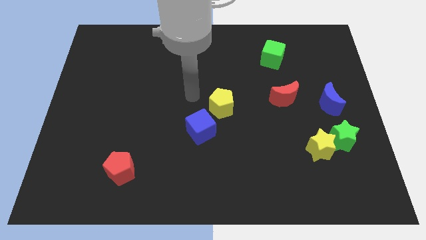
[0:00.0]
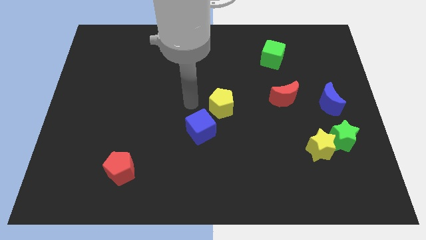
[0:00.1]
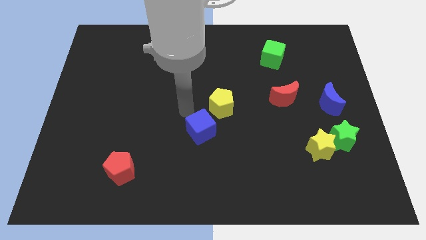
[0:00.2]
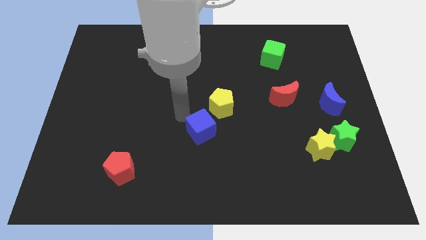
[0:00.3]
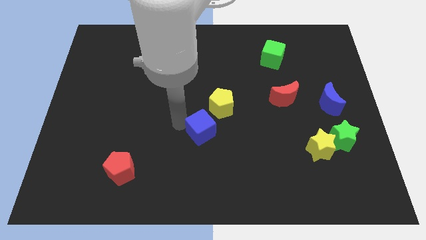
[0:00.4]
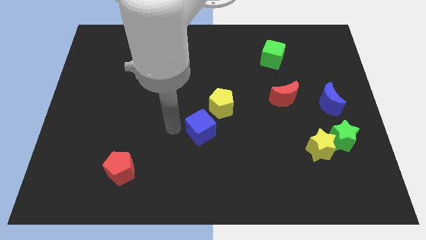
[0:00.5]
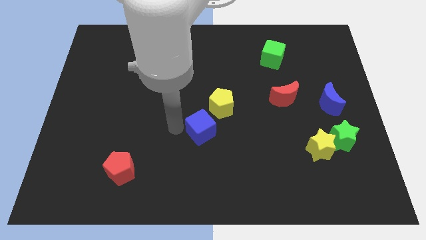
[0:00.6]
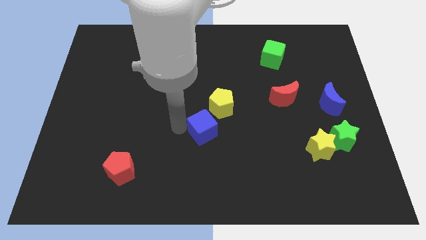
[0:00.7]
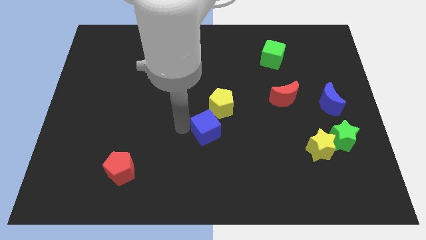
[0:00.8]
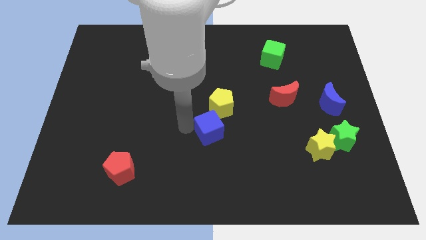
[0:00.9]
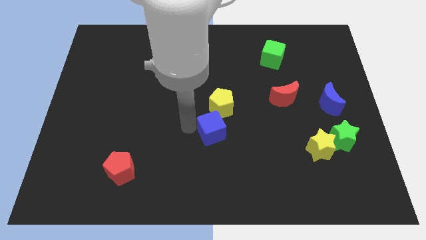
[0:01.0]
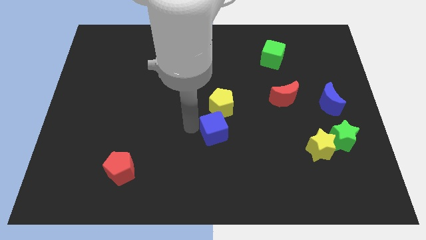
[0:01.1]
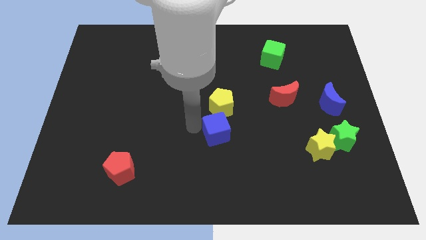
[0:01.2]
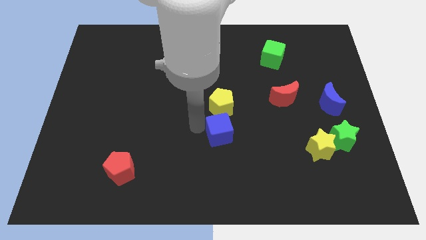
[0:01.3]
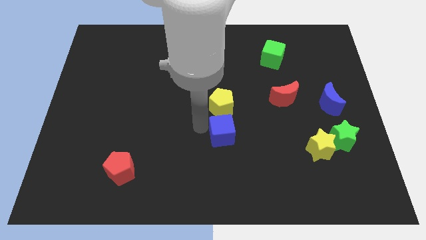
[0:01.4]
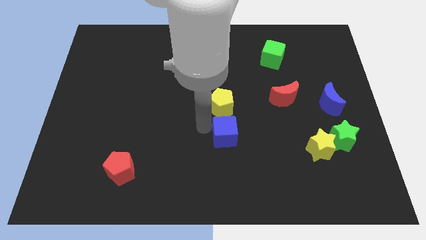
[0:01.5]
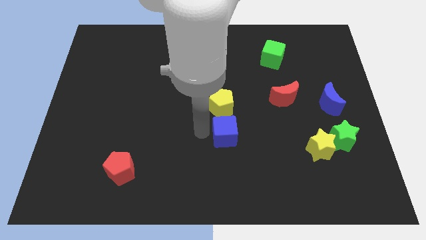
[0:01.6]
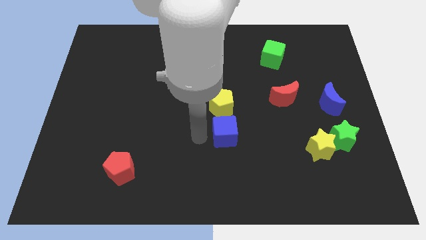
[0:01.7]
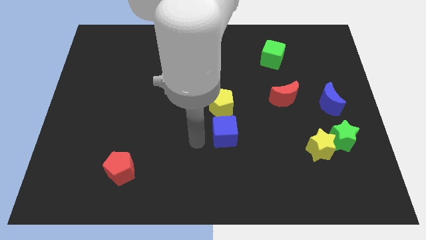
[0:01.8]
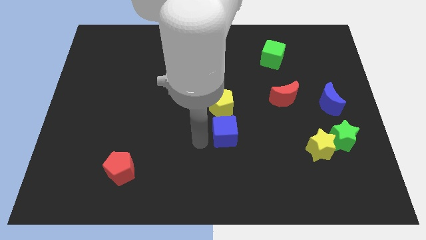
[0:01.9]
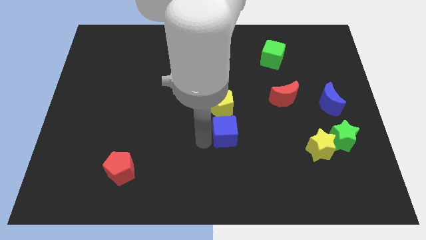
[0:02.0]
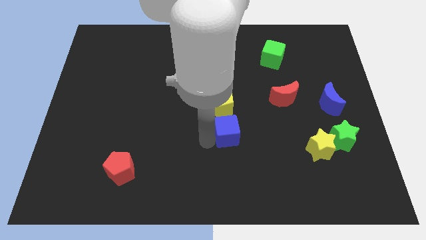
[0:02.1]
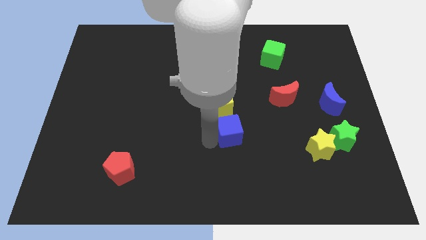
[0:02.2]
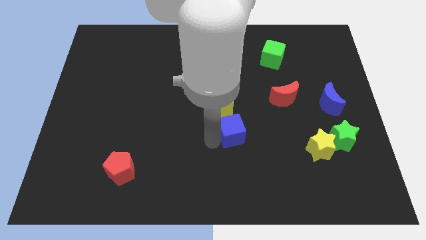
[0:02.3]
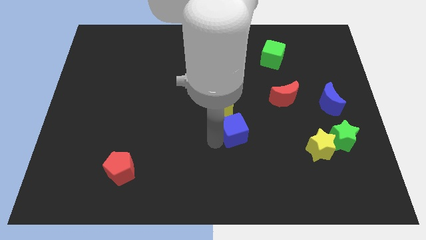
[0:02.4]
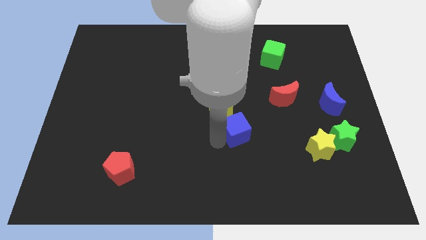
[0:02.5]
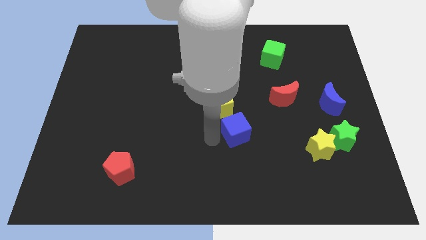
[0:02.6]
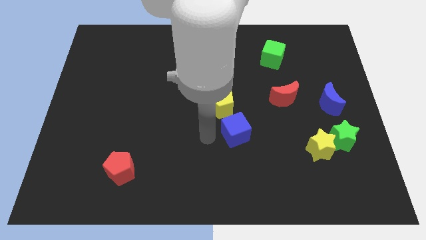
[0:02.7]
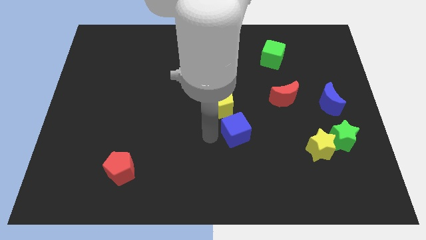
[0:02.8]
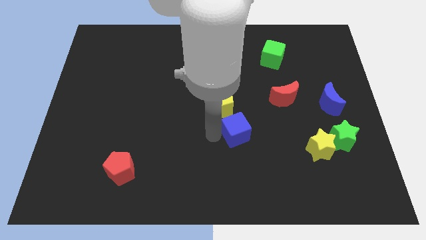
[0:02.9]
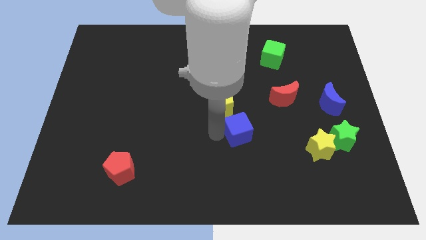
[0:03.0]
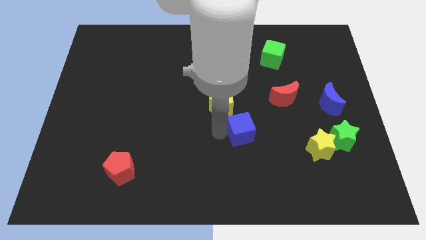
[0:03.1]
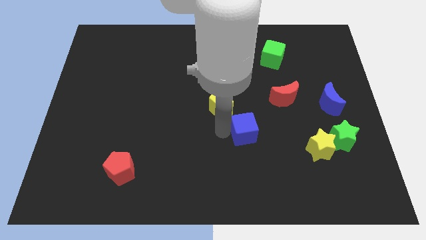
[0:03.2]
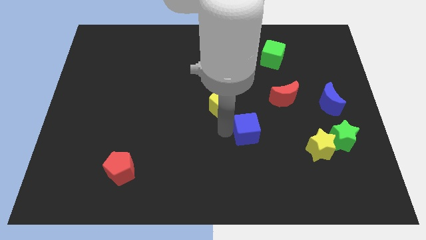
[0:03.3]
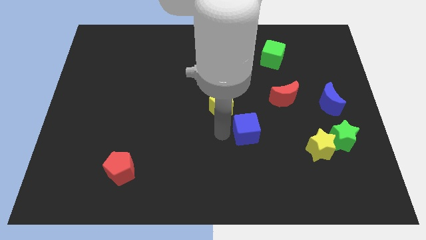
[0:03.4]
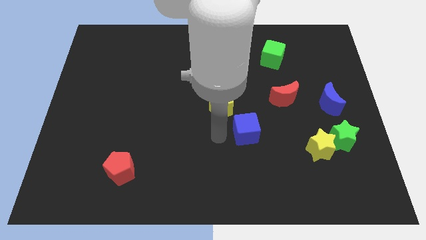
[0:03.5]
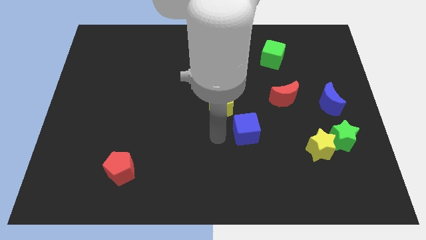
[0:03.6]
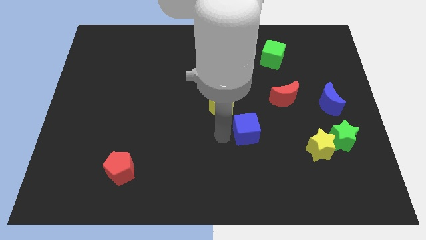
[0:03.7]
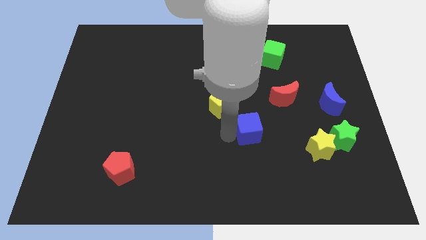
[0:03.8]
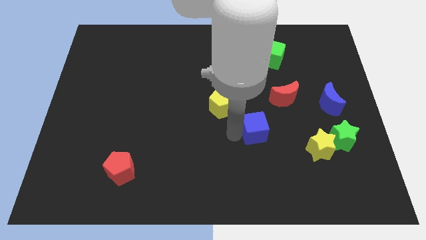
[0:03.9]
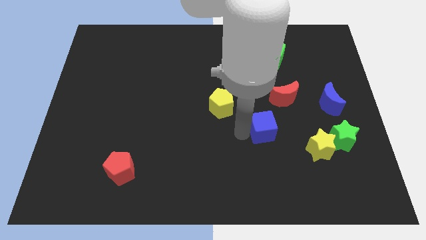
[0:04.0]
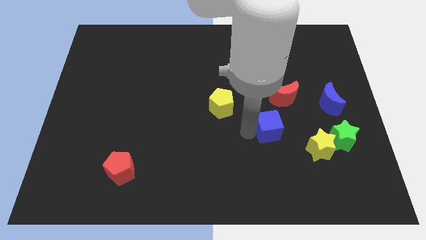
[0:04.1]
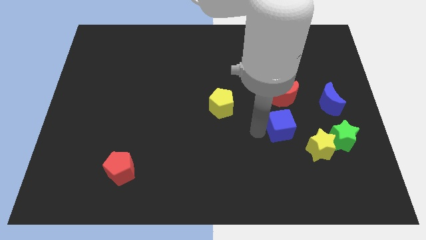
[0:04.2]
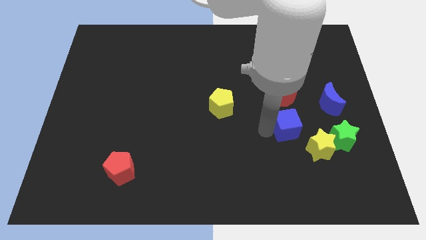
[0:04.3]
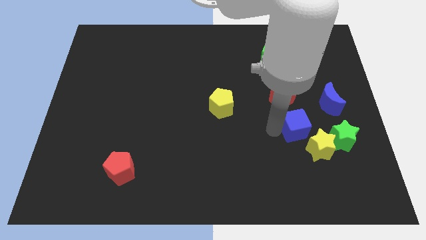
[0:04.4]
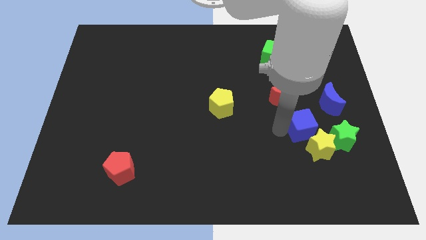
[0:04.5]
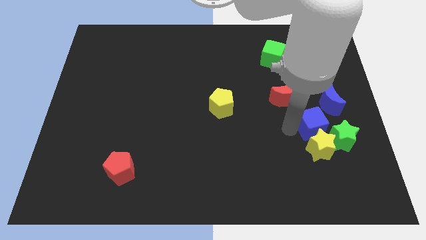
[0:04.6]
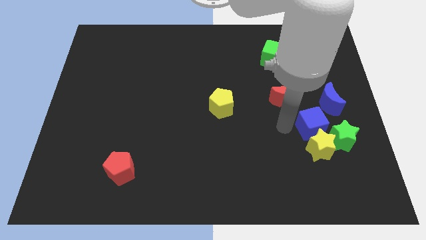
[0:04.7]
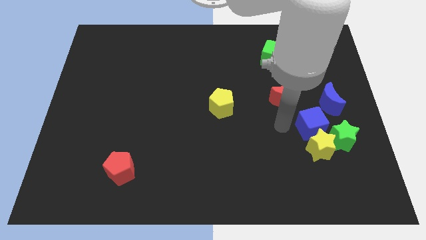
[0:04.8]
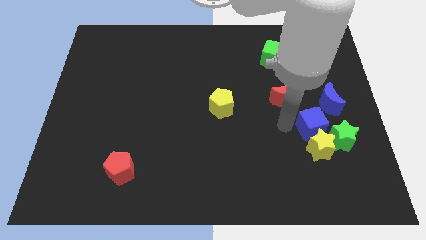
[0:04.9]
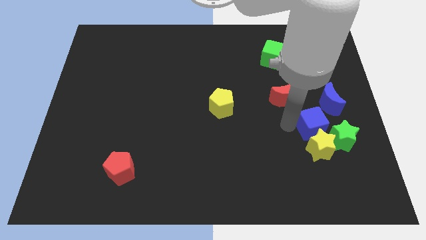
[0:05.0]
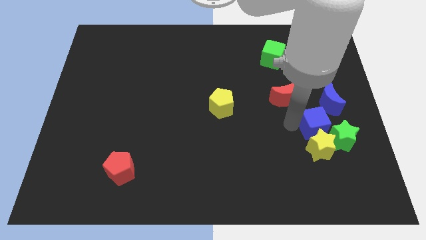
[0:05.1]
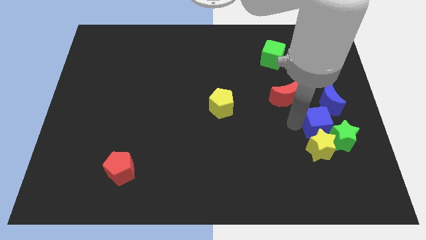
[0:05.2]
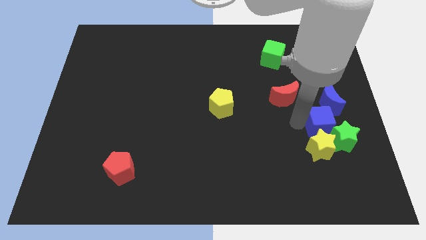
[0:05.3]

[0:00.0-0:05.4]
move the blue cube to the green star

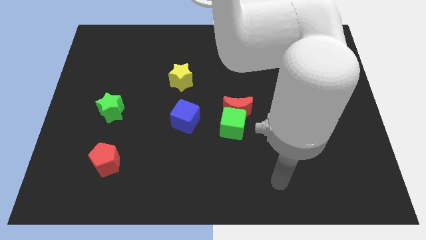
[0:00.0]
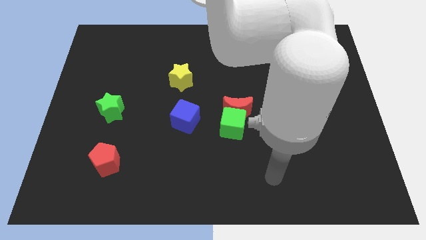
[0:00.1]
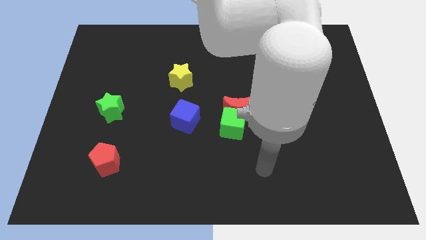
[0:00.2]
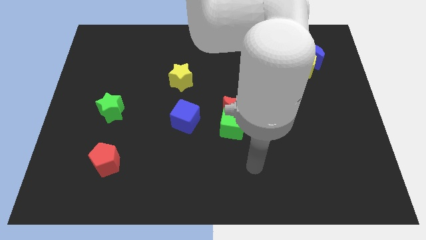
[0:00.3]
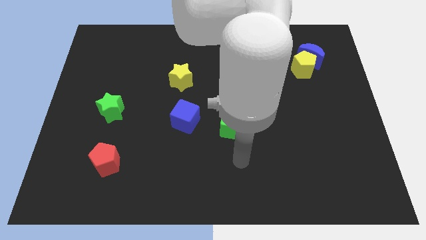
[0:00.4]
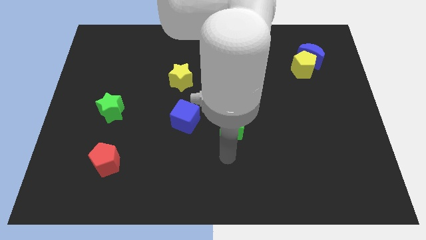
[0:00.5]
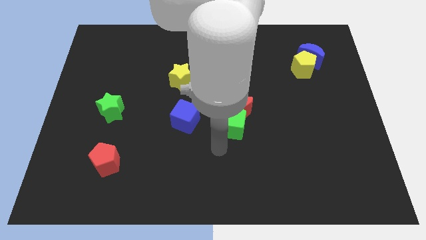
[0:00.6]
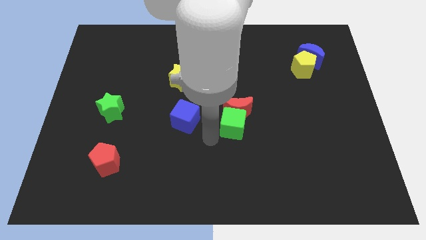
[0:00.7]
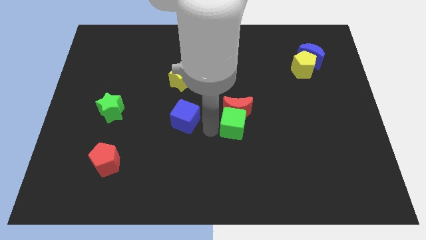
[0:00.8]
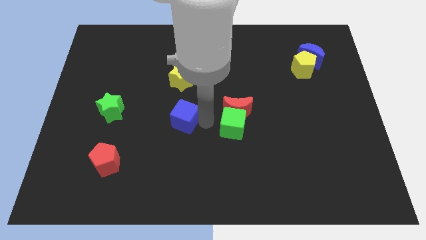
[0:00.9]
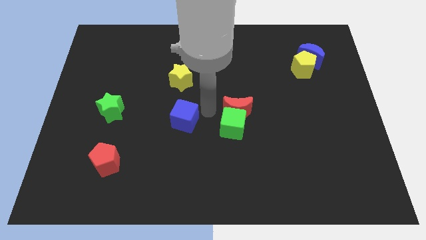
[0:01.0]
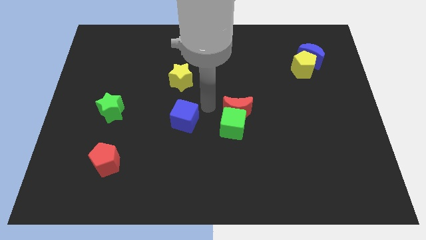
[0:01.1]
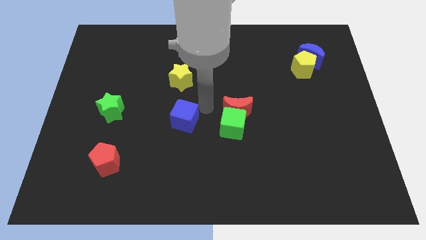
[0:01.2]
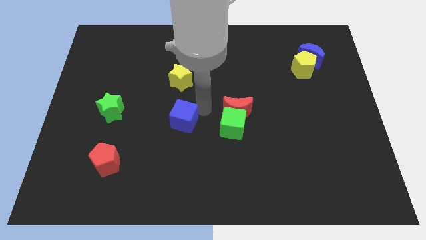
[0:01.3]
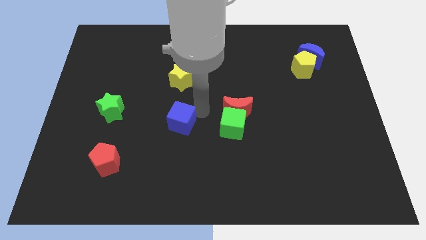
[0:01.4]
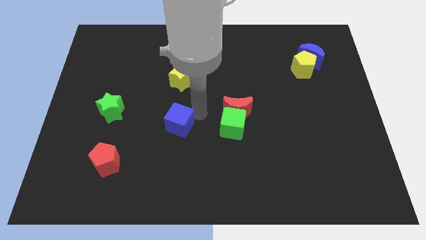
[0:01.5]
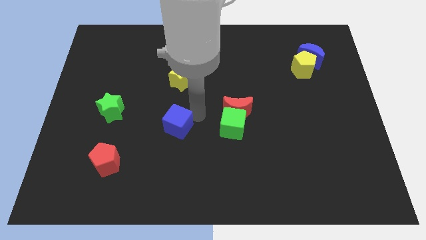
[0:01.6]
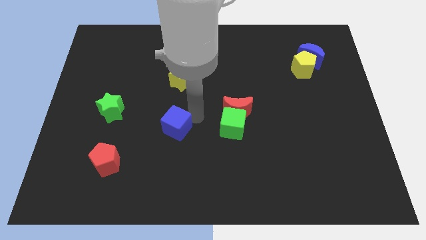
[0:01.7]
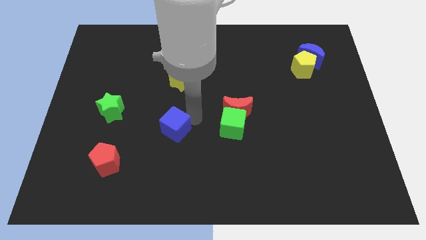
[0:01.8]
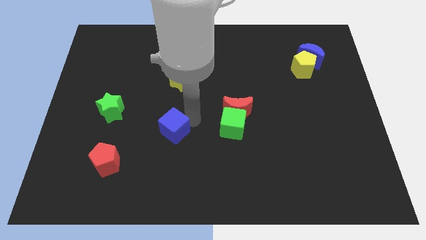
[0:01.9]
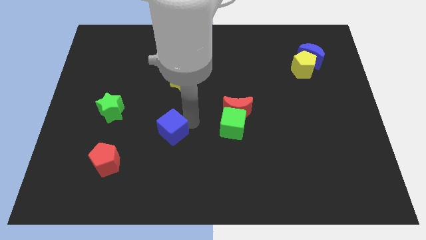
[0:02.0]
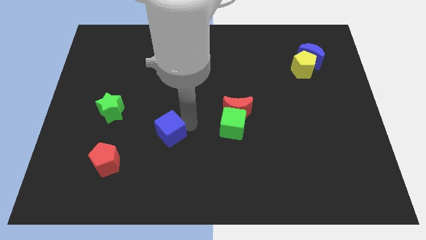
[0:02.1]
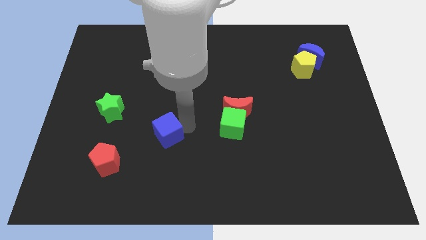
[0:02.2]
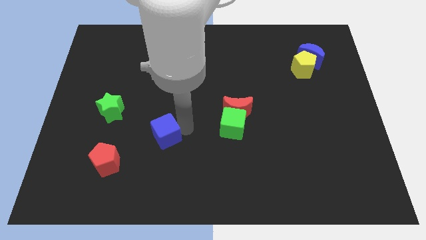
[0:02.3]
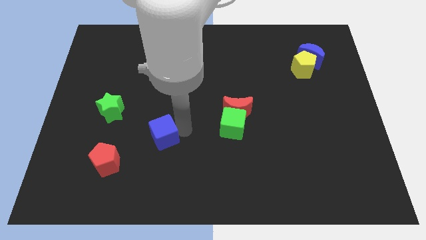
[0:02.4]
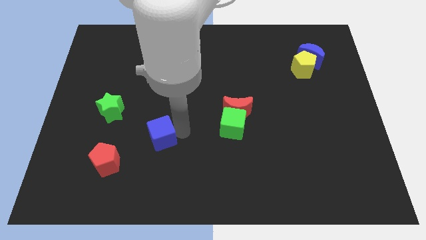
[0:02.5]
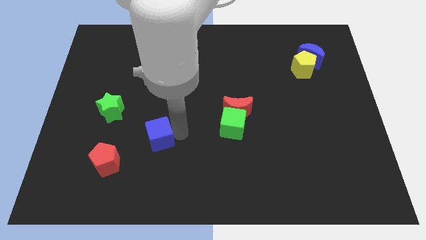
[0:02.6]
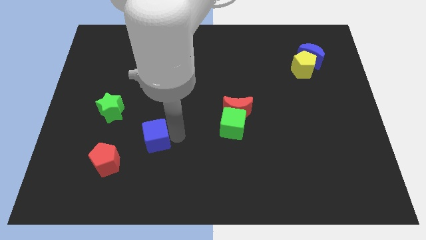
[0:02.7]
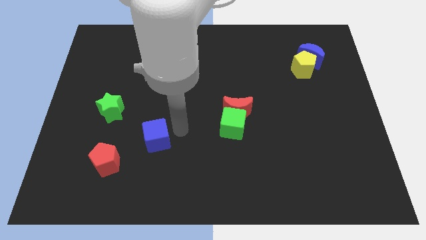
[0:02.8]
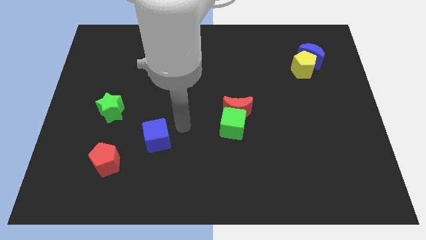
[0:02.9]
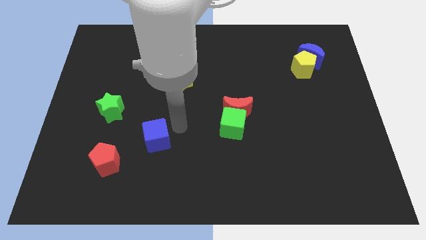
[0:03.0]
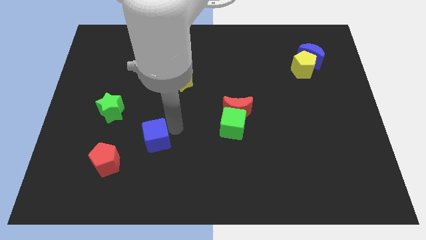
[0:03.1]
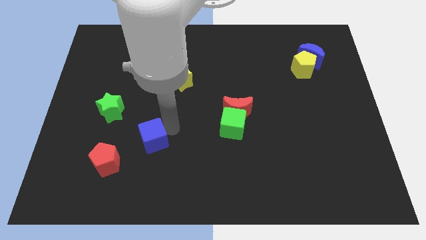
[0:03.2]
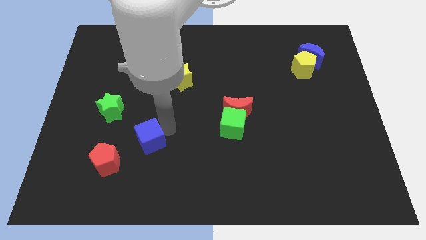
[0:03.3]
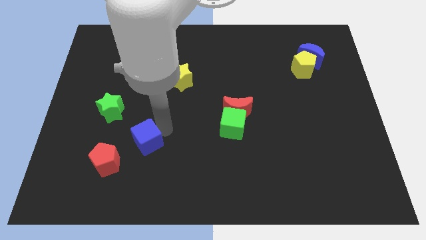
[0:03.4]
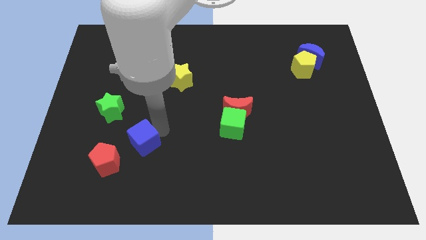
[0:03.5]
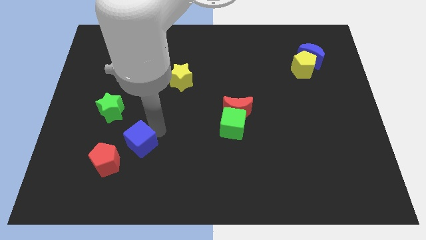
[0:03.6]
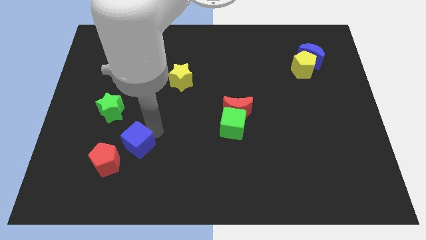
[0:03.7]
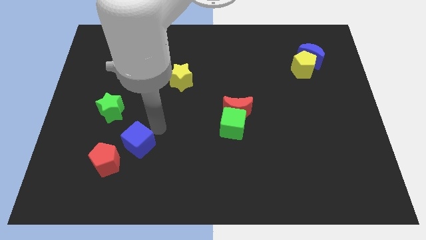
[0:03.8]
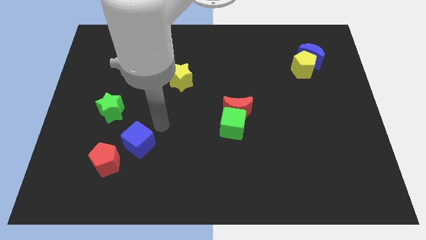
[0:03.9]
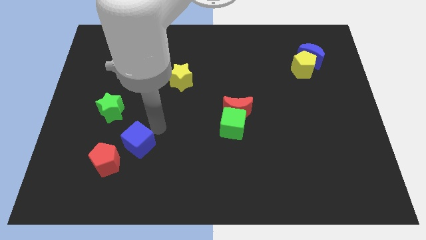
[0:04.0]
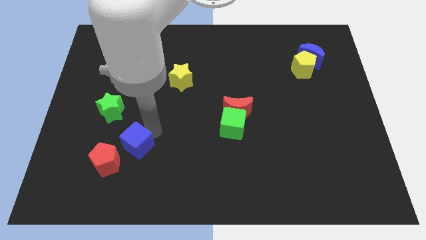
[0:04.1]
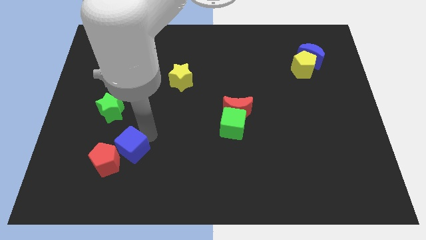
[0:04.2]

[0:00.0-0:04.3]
move the blue cube next to the red pentagon
